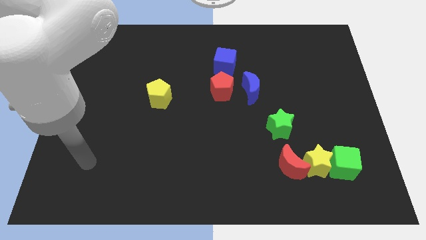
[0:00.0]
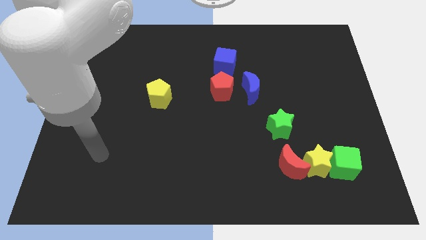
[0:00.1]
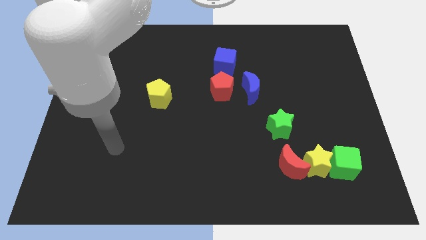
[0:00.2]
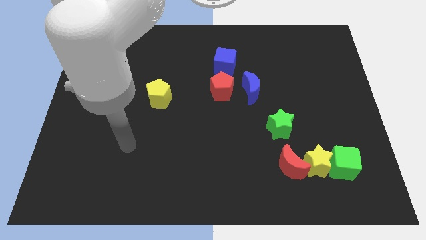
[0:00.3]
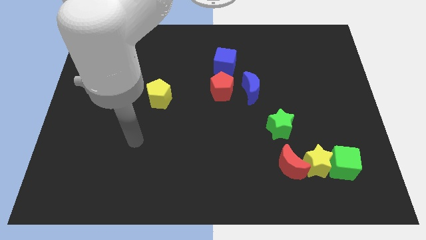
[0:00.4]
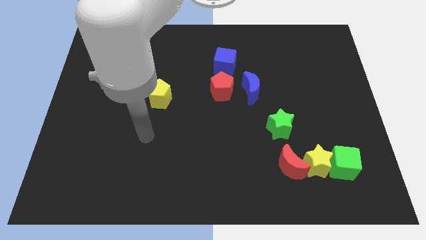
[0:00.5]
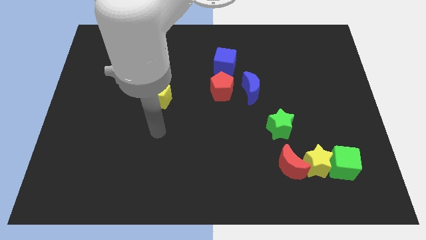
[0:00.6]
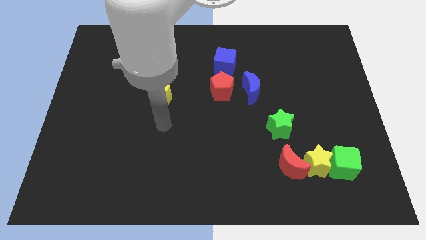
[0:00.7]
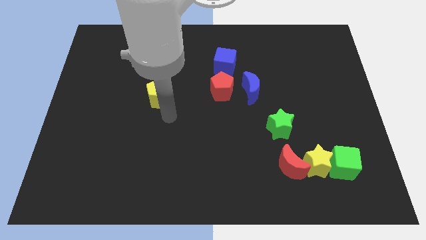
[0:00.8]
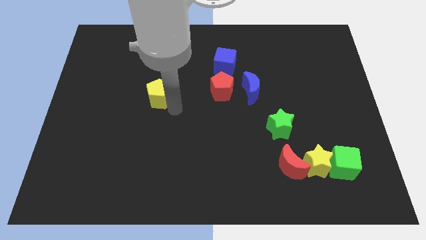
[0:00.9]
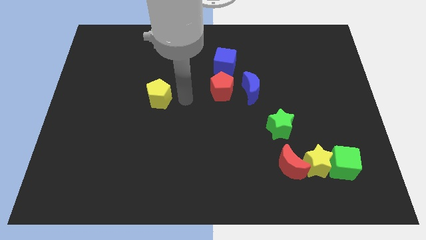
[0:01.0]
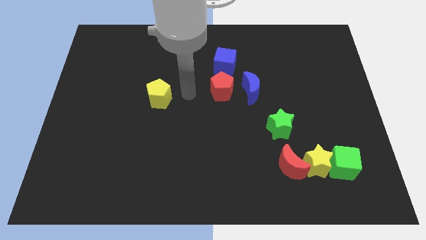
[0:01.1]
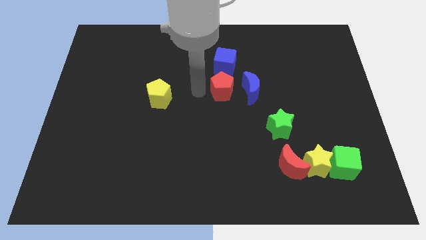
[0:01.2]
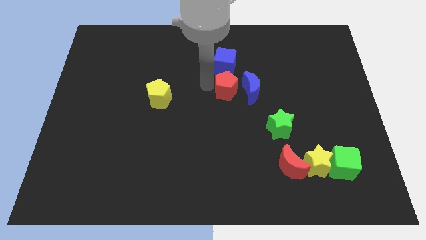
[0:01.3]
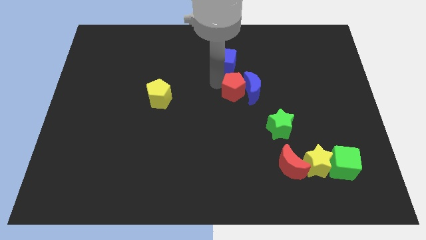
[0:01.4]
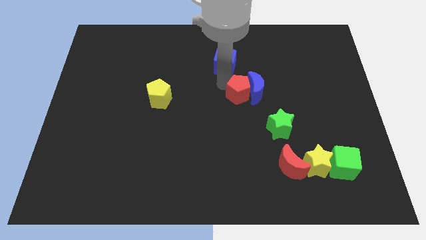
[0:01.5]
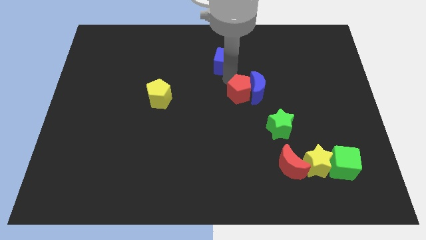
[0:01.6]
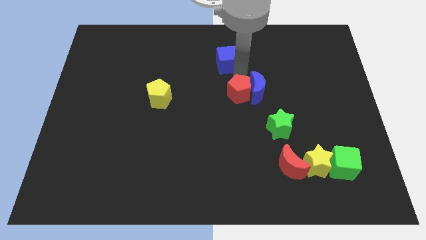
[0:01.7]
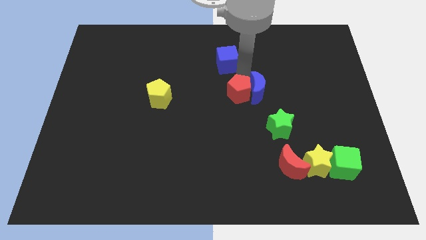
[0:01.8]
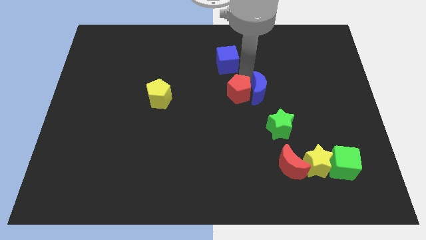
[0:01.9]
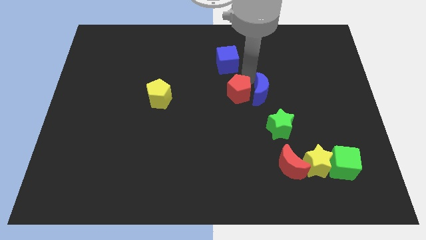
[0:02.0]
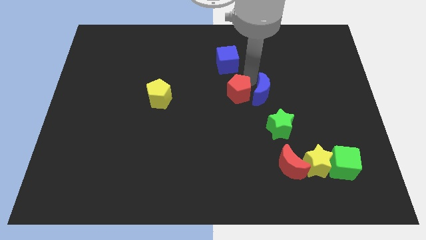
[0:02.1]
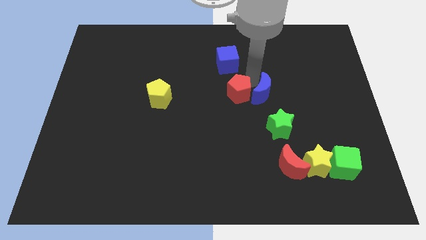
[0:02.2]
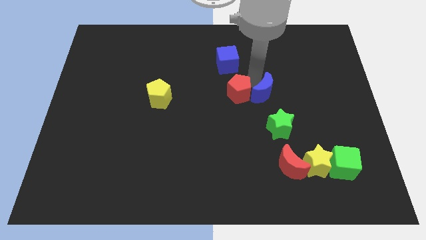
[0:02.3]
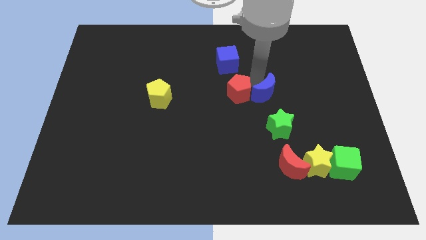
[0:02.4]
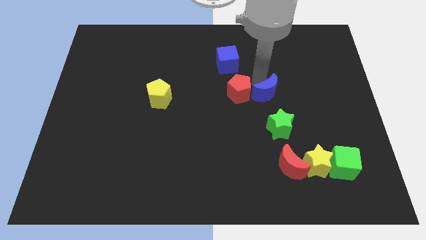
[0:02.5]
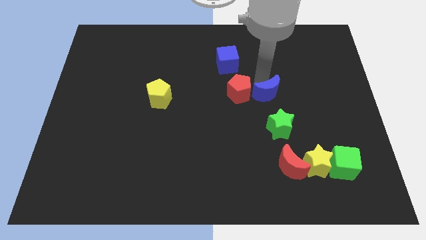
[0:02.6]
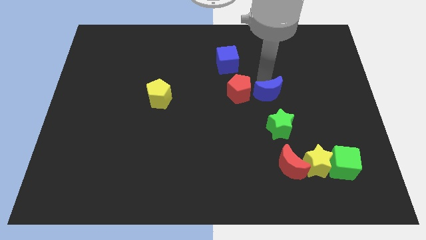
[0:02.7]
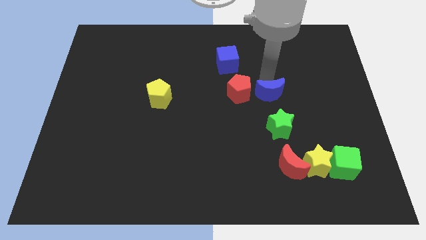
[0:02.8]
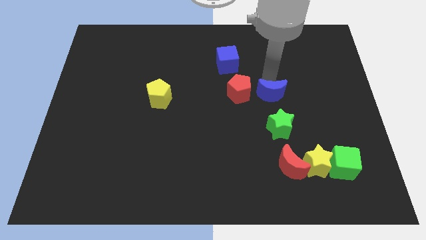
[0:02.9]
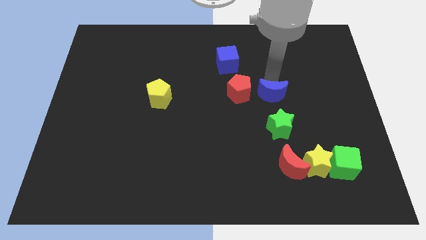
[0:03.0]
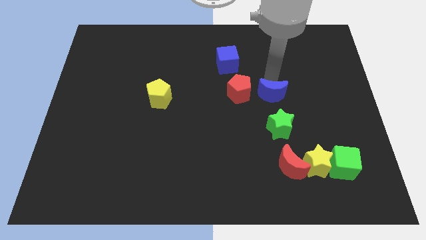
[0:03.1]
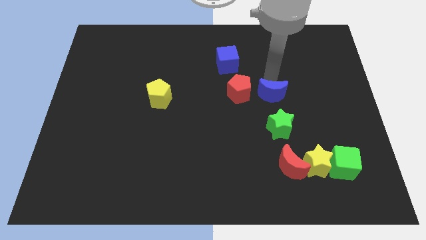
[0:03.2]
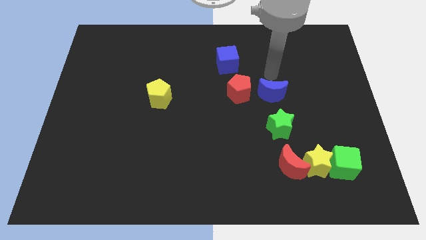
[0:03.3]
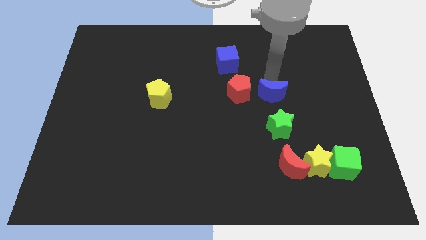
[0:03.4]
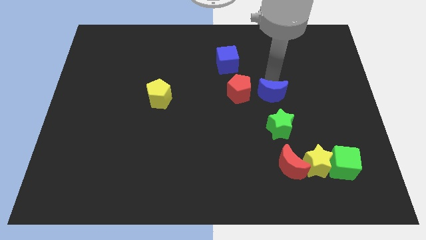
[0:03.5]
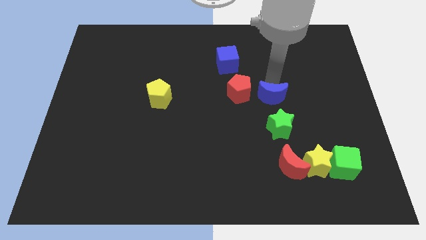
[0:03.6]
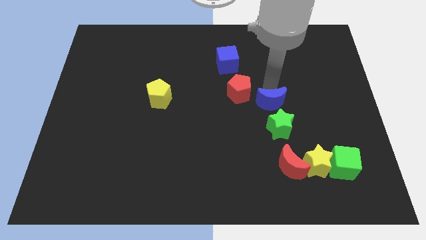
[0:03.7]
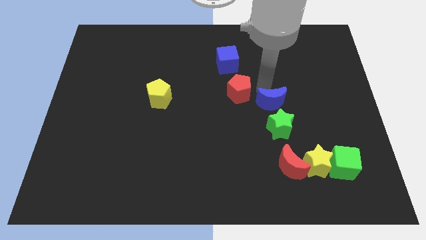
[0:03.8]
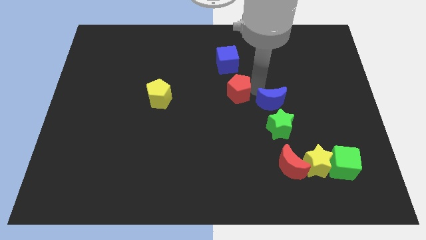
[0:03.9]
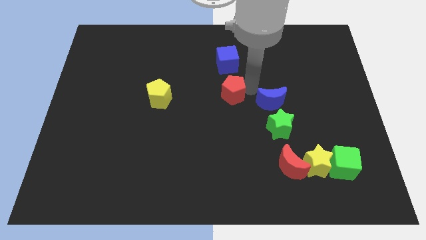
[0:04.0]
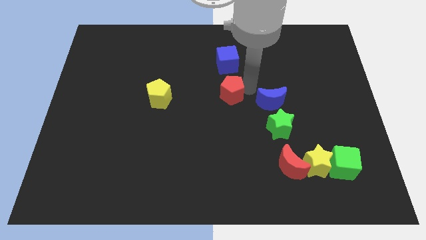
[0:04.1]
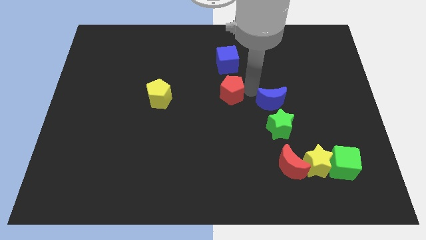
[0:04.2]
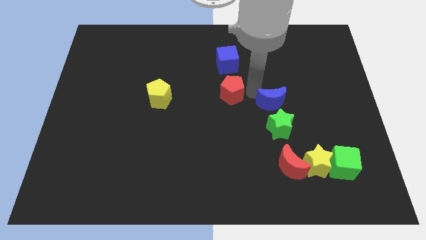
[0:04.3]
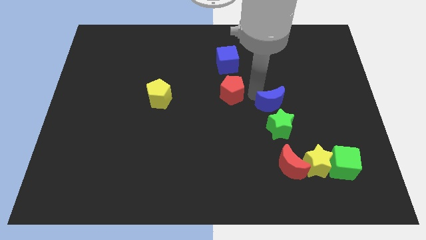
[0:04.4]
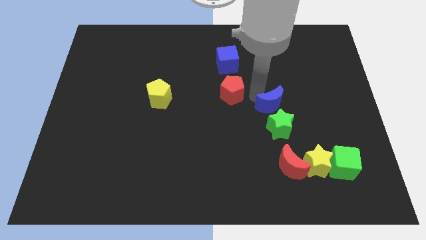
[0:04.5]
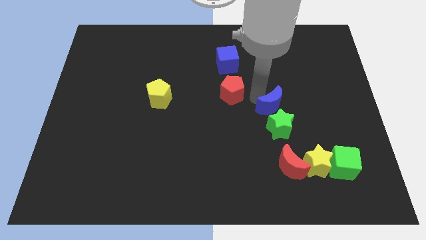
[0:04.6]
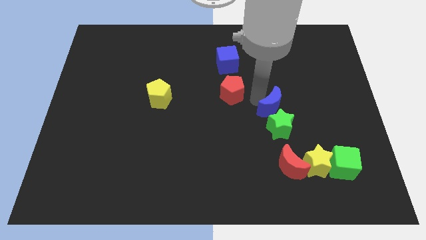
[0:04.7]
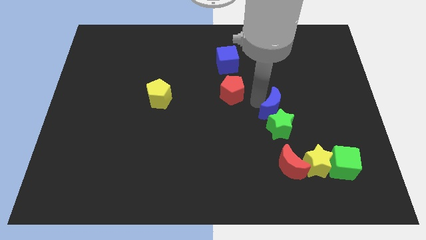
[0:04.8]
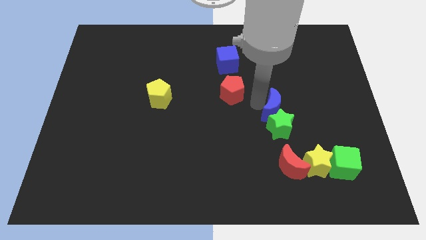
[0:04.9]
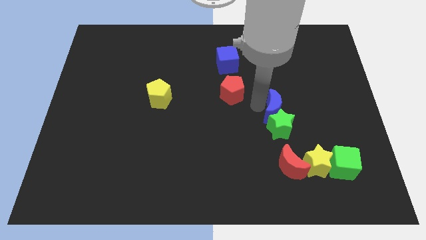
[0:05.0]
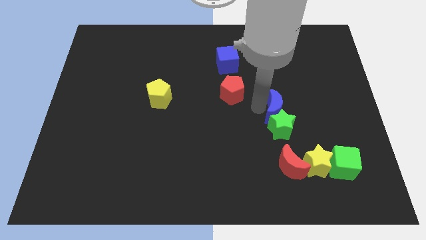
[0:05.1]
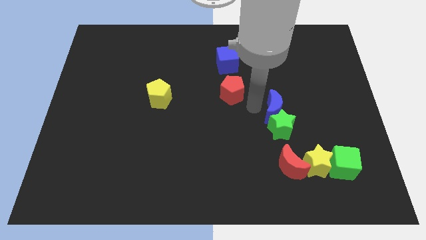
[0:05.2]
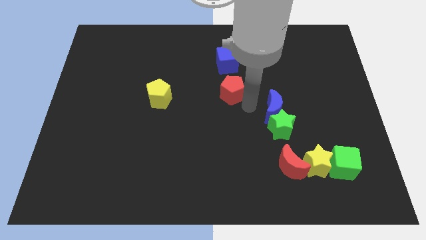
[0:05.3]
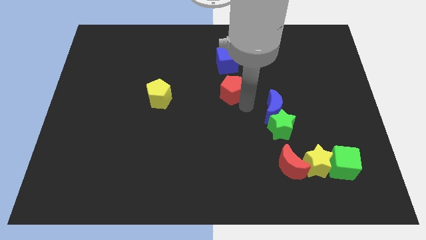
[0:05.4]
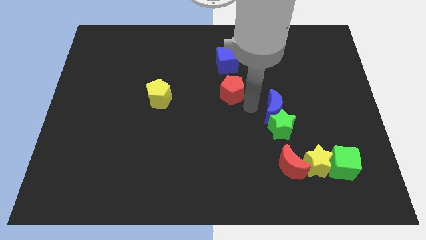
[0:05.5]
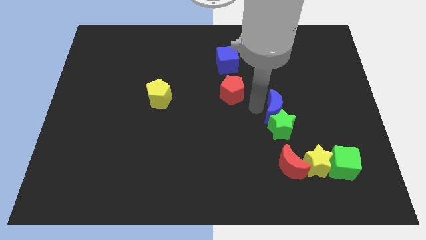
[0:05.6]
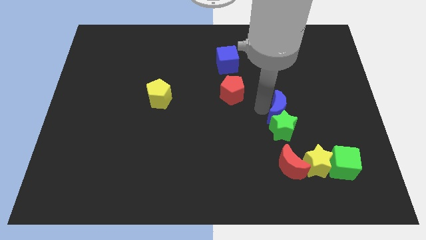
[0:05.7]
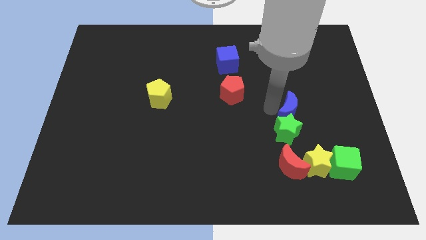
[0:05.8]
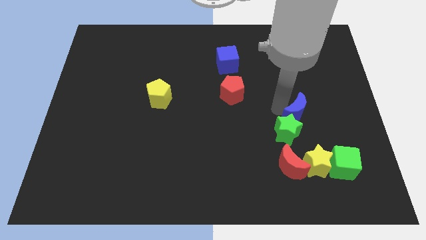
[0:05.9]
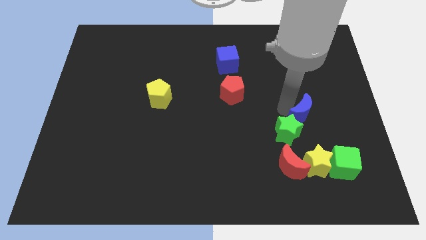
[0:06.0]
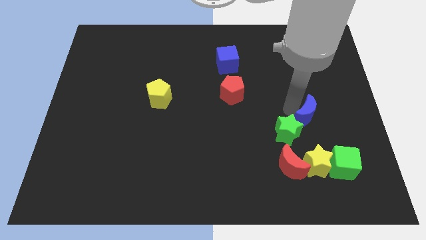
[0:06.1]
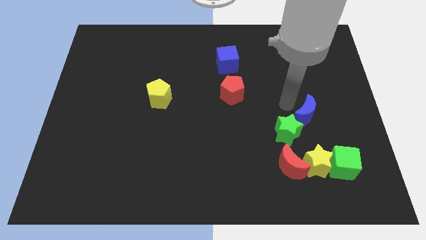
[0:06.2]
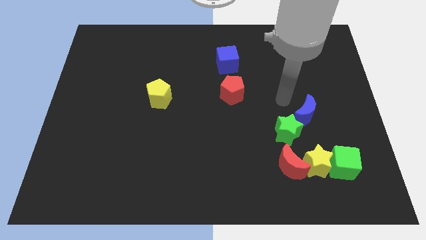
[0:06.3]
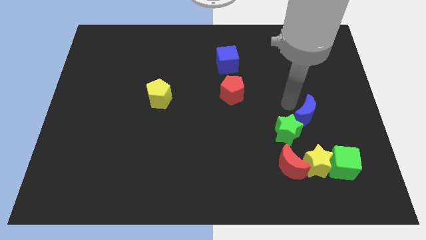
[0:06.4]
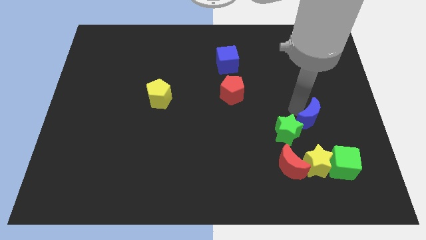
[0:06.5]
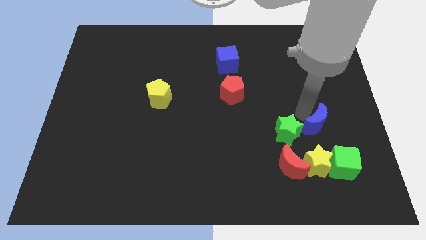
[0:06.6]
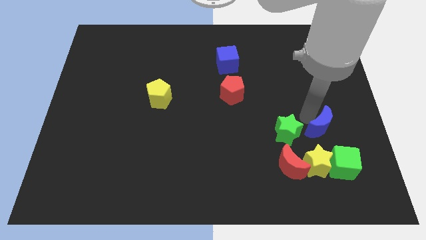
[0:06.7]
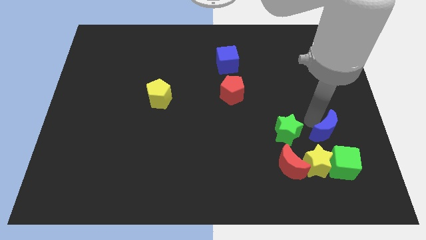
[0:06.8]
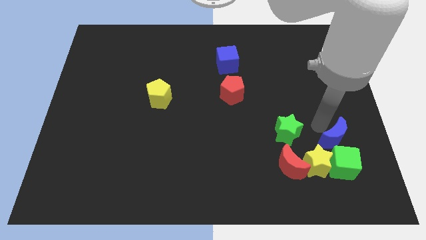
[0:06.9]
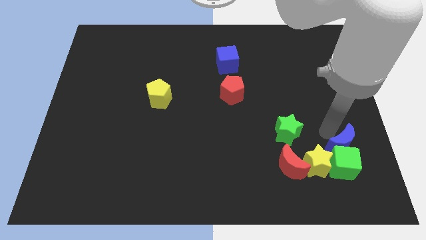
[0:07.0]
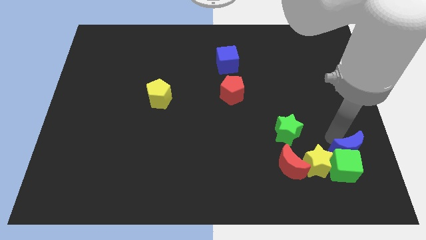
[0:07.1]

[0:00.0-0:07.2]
push the blue moon right of the red moon

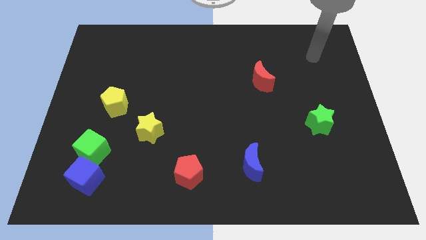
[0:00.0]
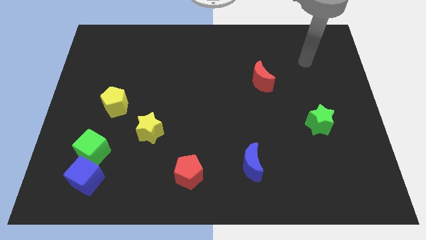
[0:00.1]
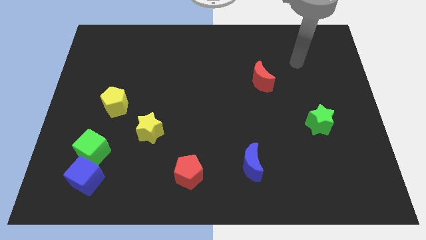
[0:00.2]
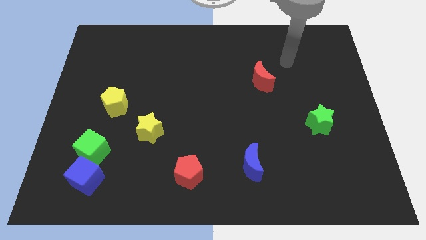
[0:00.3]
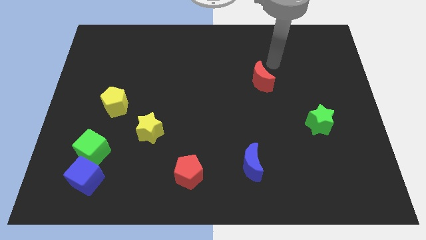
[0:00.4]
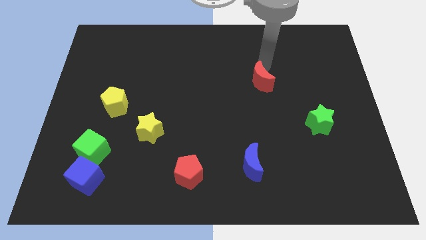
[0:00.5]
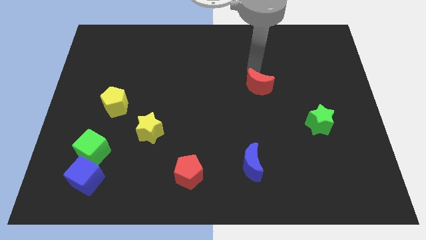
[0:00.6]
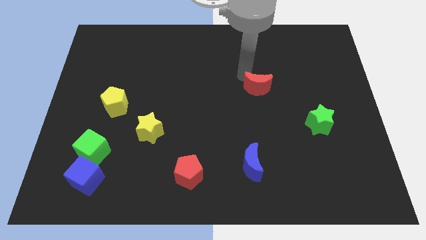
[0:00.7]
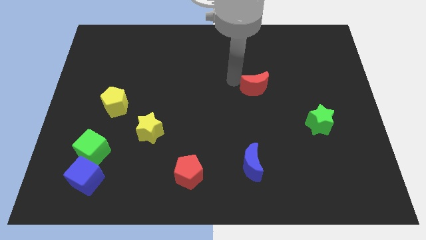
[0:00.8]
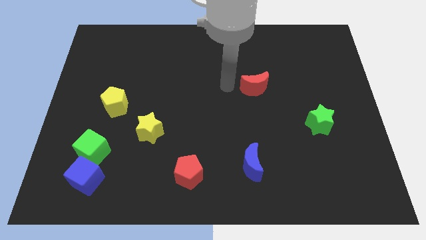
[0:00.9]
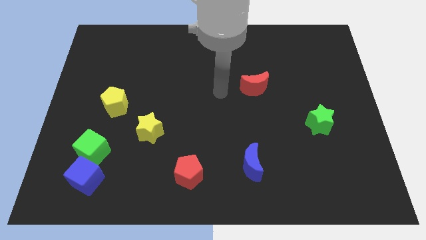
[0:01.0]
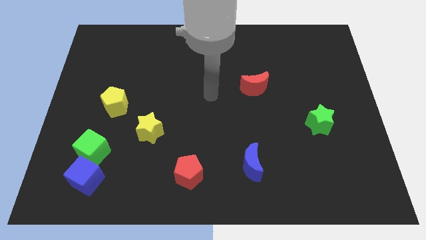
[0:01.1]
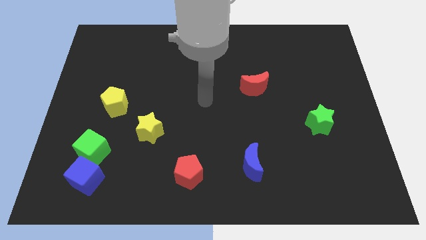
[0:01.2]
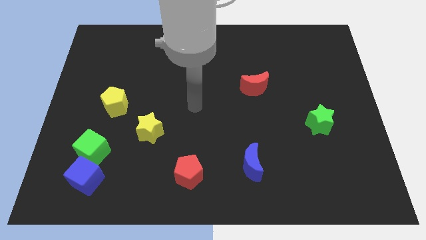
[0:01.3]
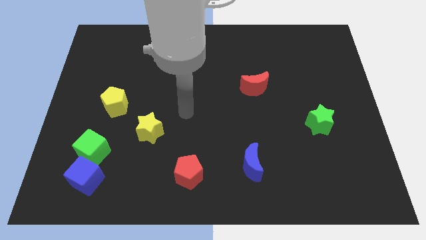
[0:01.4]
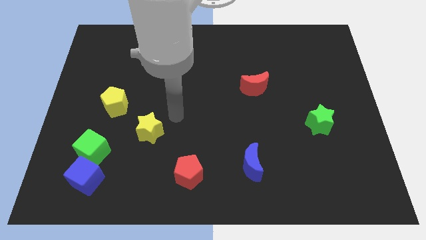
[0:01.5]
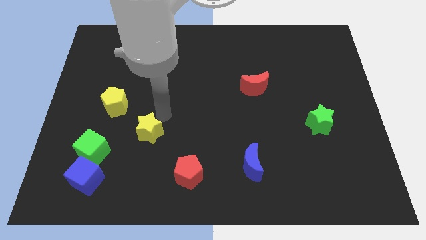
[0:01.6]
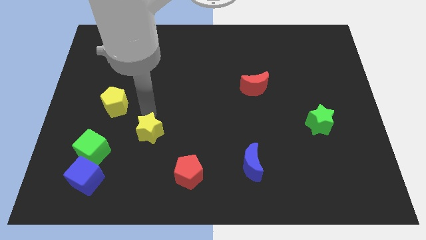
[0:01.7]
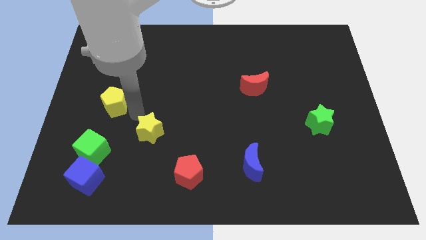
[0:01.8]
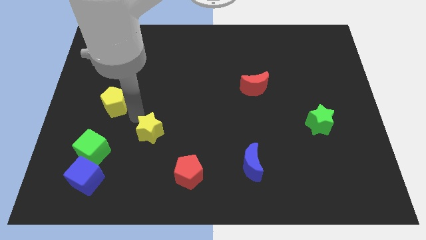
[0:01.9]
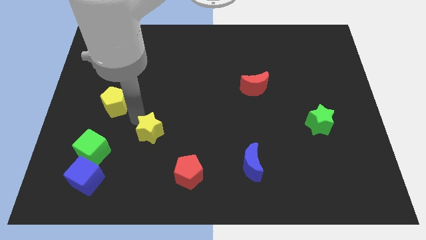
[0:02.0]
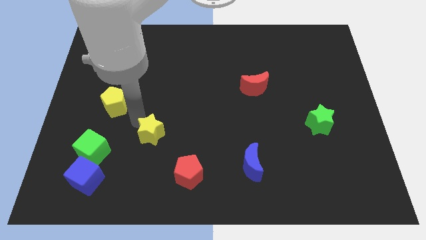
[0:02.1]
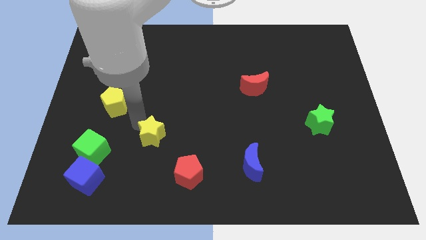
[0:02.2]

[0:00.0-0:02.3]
move the yellow star to the top left of the red pentagon
